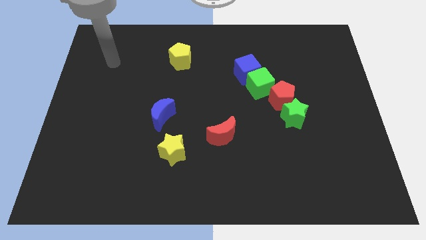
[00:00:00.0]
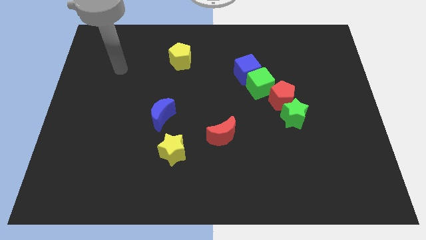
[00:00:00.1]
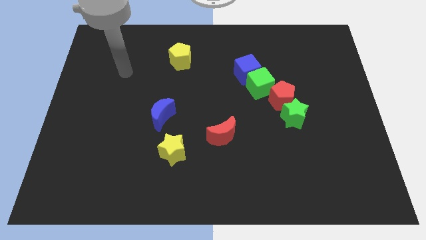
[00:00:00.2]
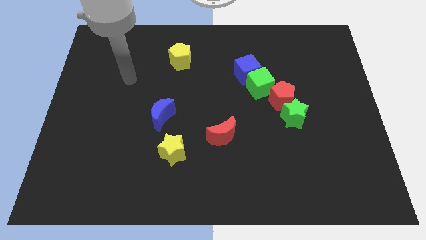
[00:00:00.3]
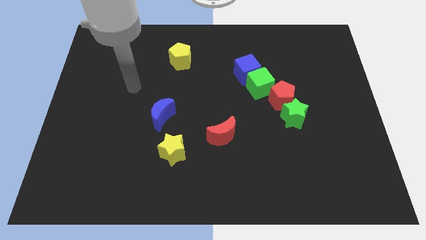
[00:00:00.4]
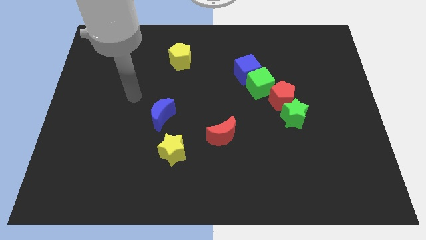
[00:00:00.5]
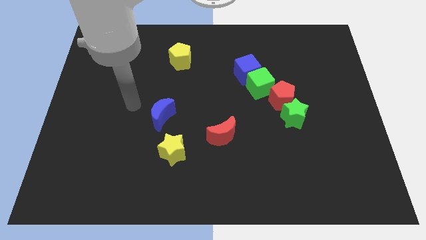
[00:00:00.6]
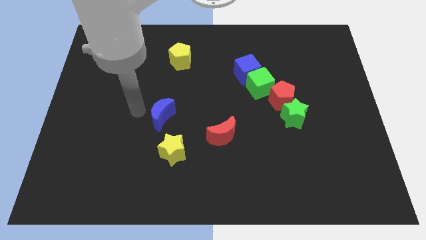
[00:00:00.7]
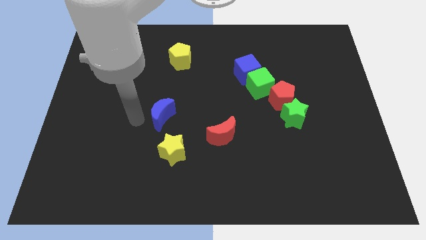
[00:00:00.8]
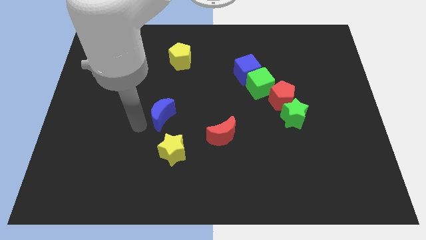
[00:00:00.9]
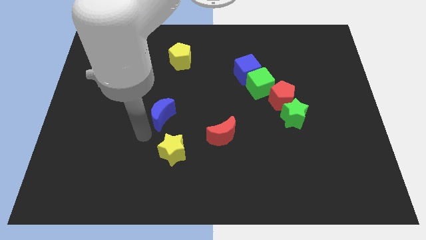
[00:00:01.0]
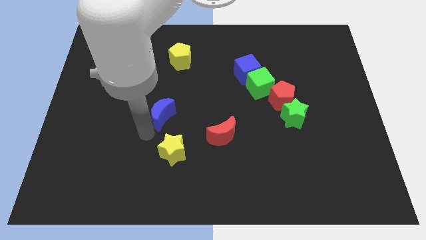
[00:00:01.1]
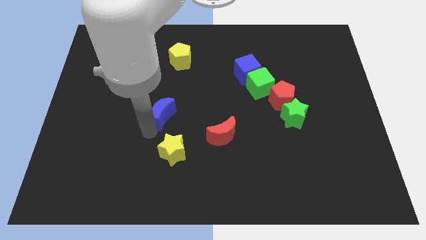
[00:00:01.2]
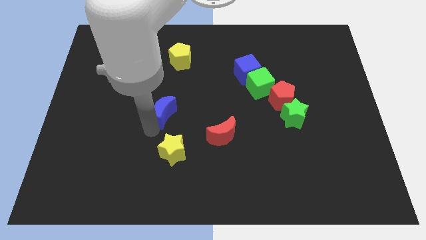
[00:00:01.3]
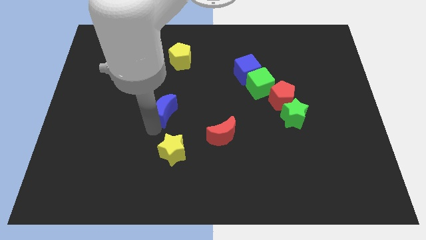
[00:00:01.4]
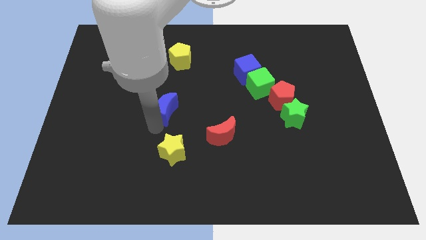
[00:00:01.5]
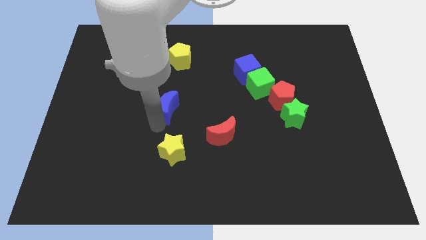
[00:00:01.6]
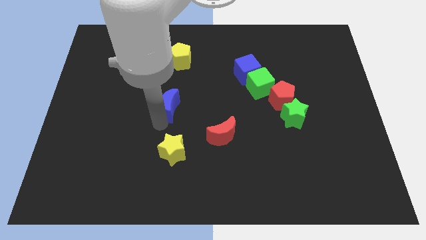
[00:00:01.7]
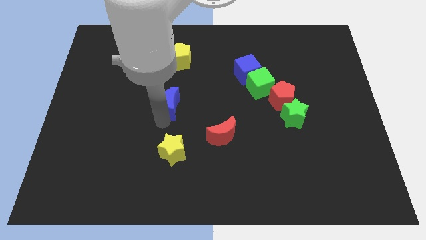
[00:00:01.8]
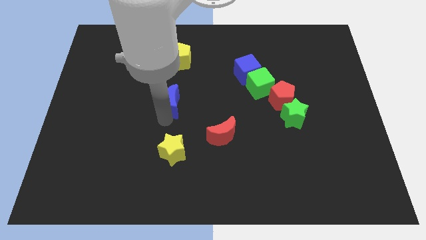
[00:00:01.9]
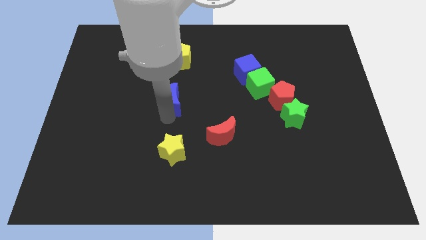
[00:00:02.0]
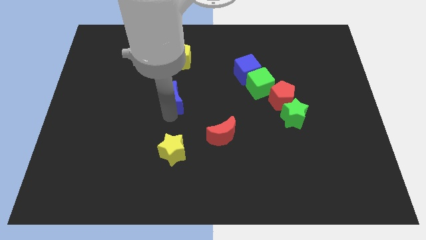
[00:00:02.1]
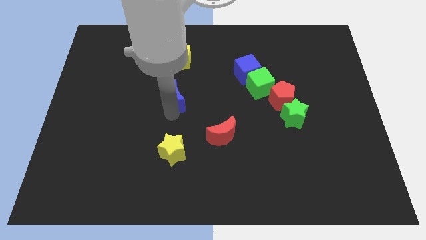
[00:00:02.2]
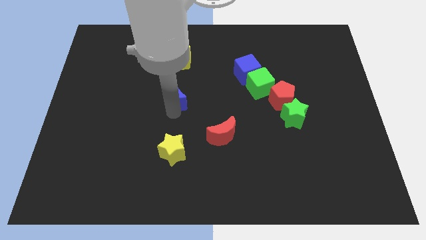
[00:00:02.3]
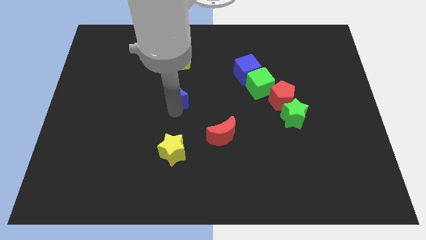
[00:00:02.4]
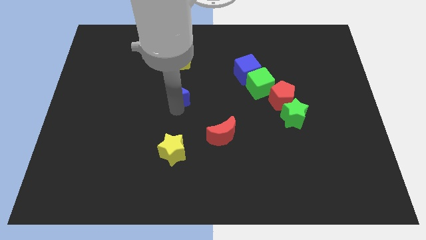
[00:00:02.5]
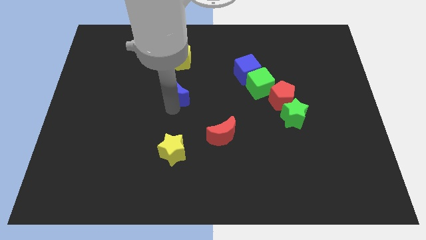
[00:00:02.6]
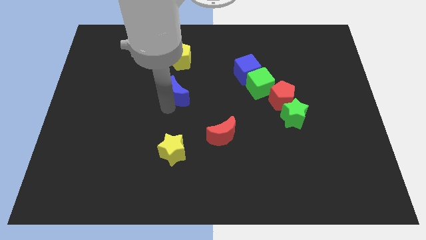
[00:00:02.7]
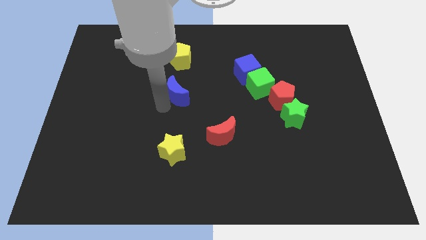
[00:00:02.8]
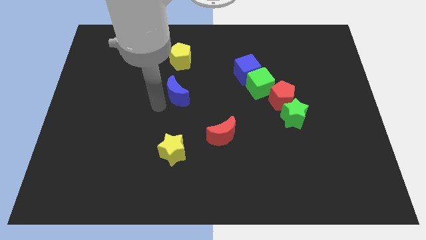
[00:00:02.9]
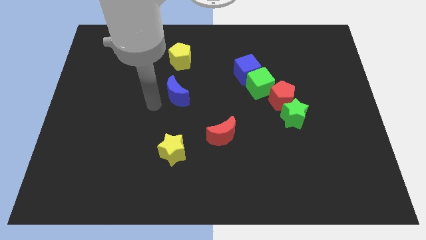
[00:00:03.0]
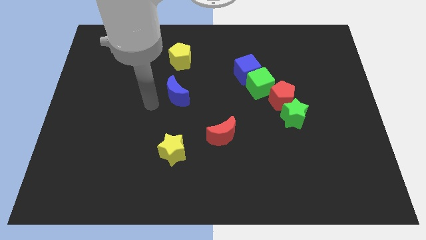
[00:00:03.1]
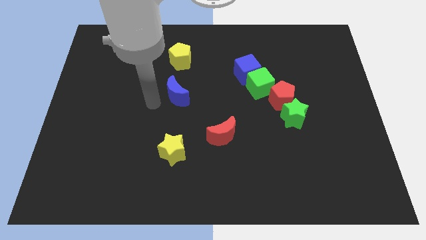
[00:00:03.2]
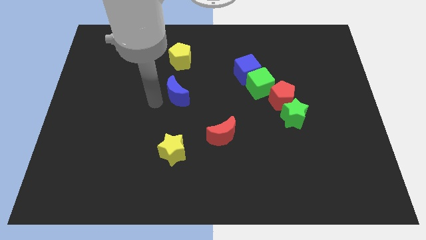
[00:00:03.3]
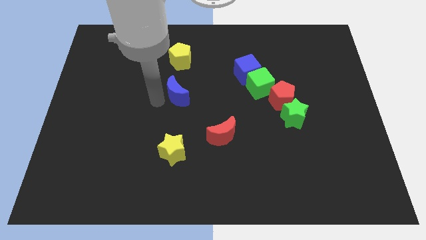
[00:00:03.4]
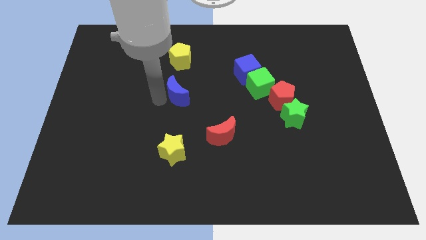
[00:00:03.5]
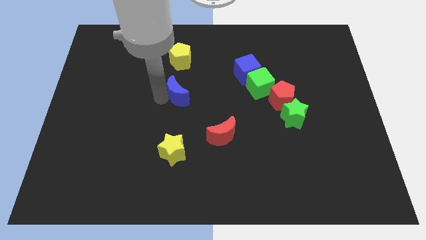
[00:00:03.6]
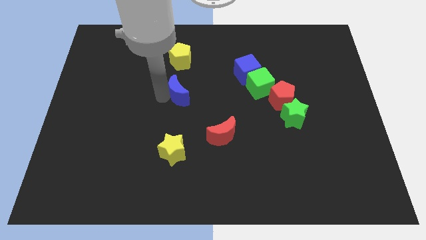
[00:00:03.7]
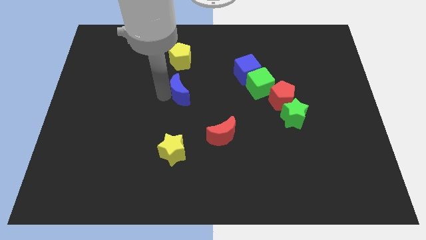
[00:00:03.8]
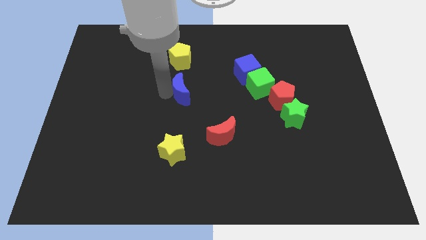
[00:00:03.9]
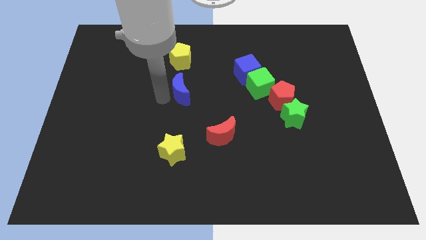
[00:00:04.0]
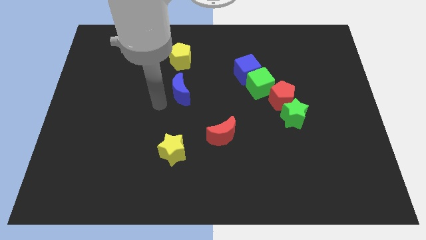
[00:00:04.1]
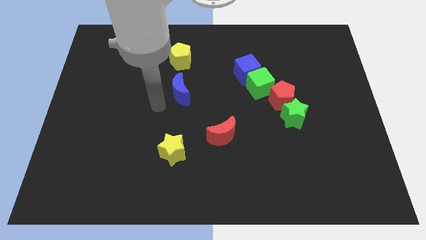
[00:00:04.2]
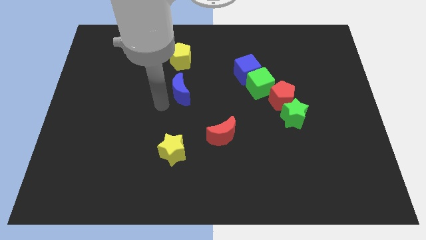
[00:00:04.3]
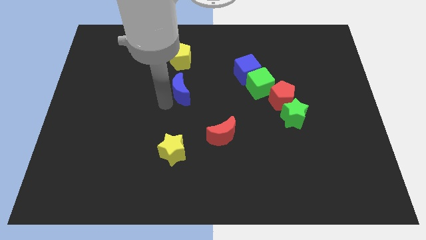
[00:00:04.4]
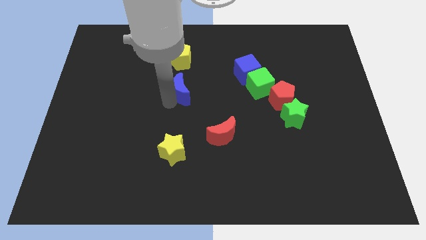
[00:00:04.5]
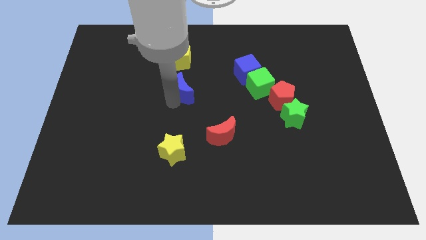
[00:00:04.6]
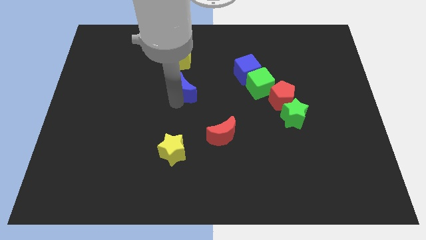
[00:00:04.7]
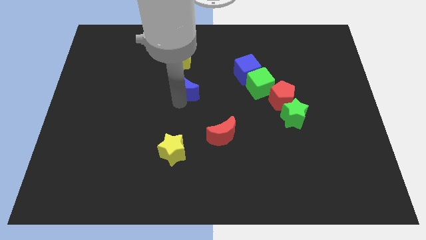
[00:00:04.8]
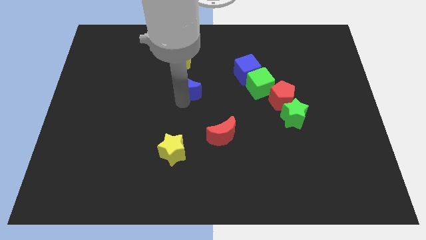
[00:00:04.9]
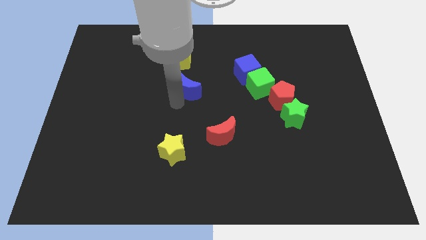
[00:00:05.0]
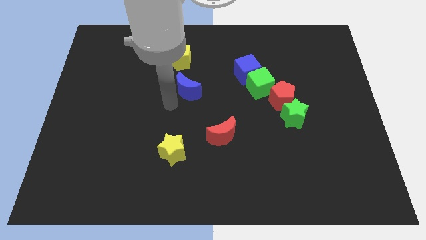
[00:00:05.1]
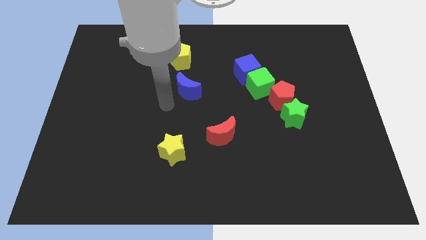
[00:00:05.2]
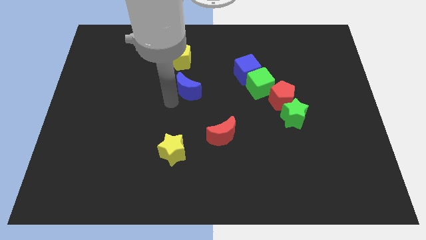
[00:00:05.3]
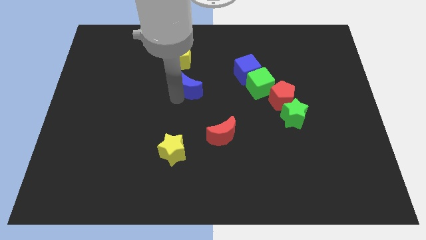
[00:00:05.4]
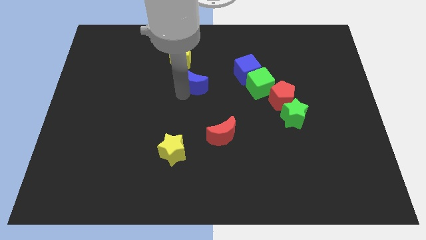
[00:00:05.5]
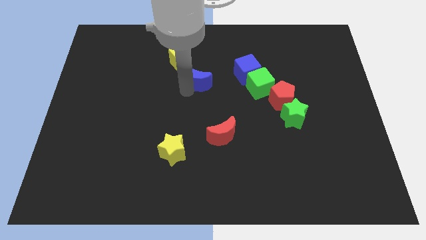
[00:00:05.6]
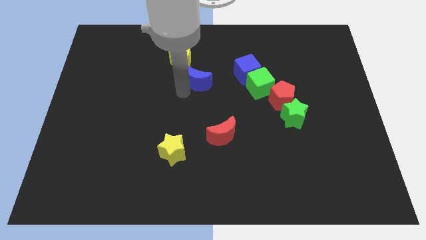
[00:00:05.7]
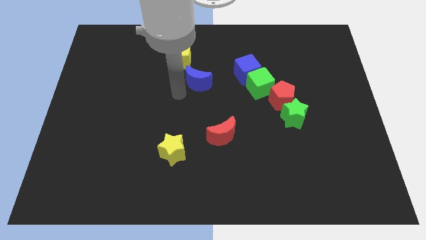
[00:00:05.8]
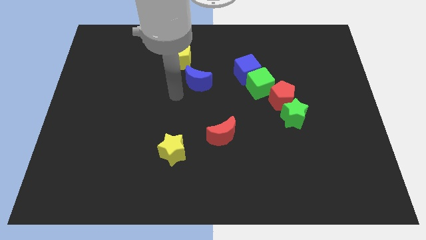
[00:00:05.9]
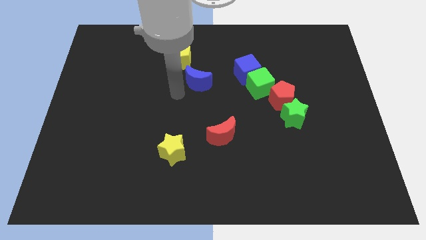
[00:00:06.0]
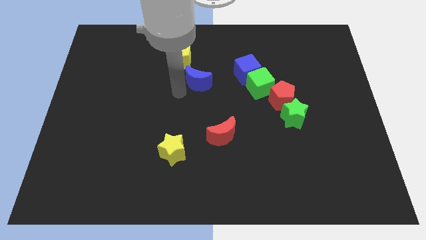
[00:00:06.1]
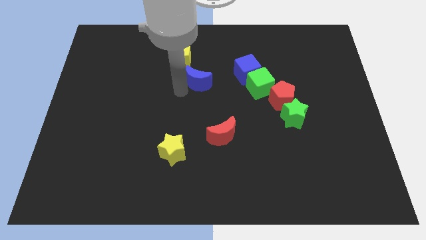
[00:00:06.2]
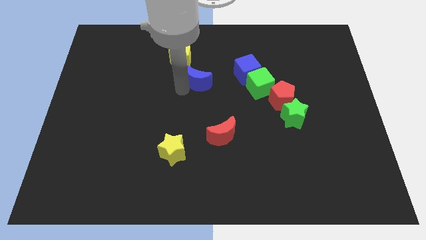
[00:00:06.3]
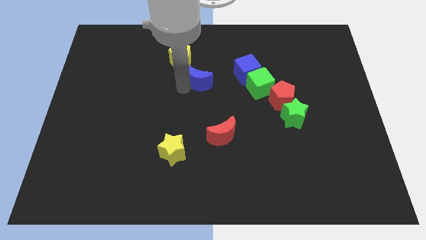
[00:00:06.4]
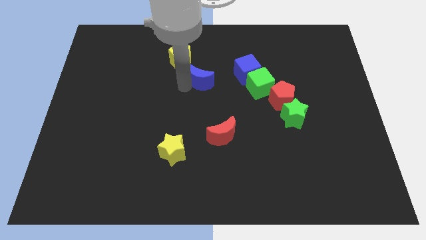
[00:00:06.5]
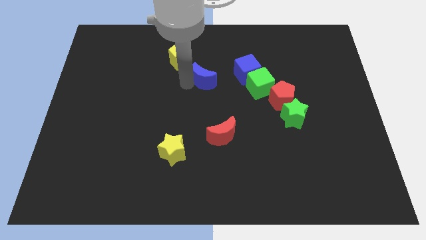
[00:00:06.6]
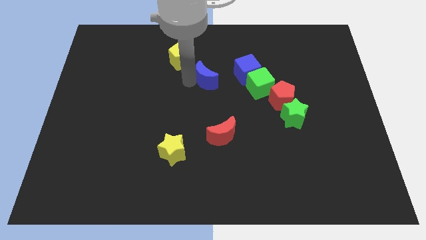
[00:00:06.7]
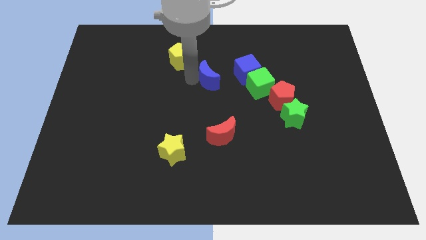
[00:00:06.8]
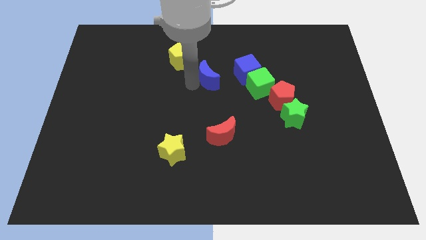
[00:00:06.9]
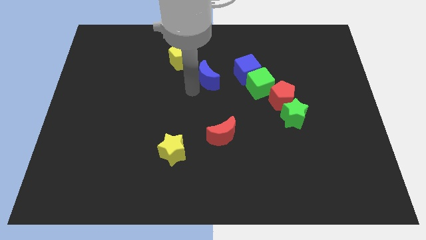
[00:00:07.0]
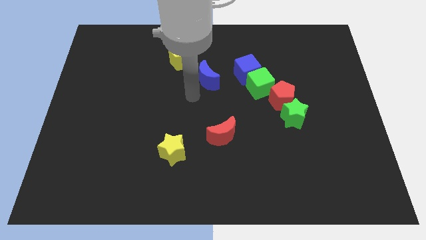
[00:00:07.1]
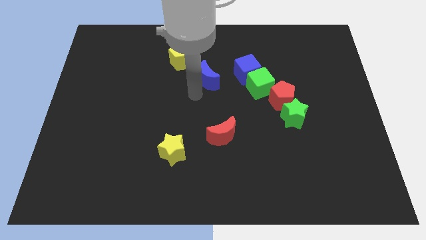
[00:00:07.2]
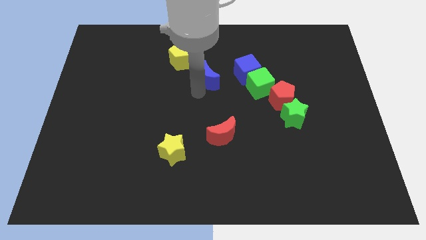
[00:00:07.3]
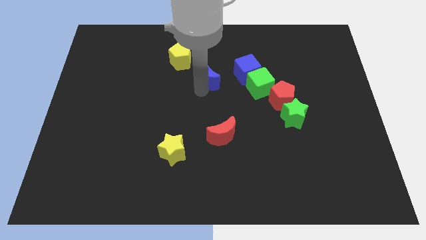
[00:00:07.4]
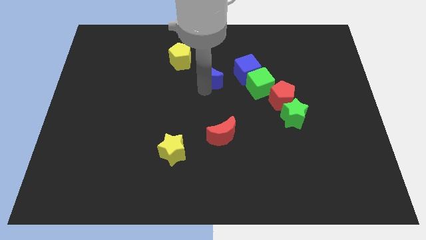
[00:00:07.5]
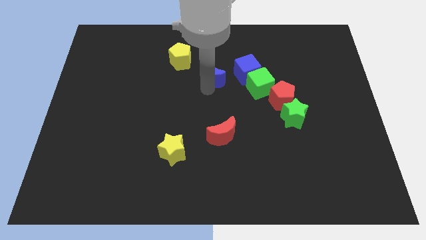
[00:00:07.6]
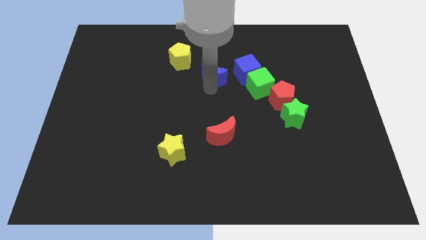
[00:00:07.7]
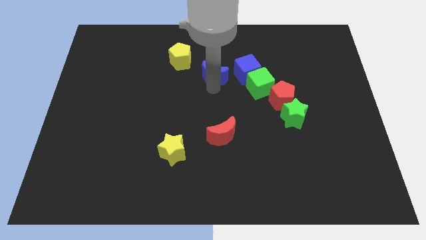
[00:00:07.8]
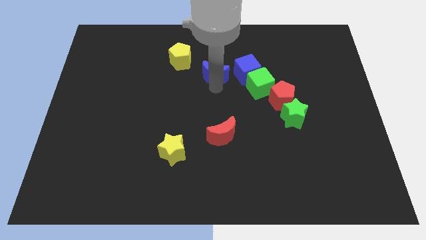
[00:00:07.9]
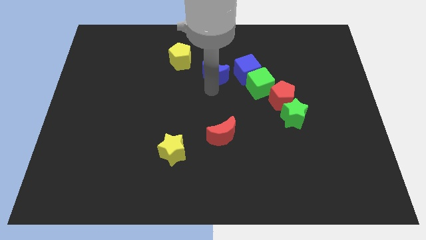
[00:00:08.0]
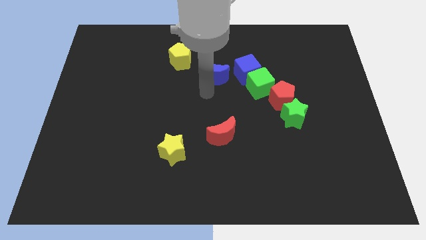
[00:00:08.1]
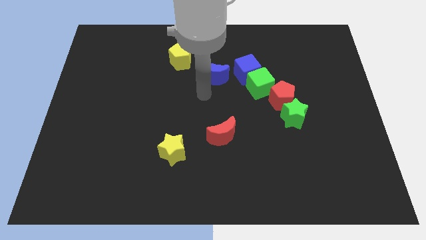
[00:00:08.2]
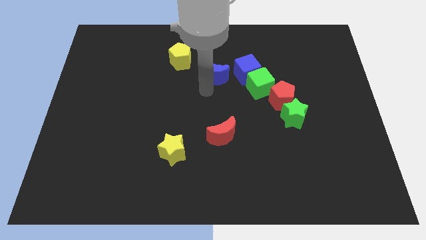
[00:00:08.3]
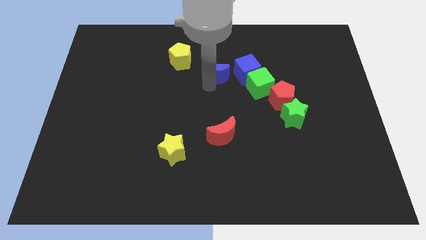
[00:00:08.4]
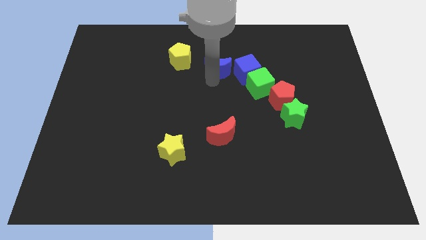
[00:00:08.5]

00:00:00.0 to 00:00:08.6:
put the blue moon to the top left of the blue cube
